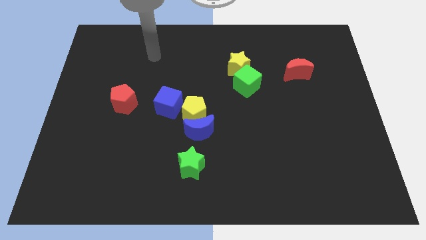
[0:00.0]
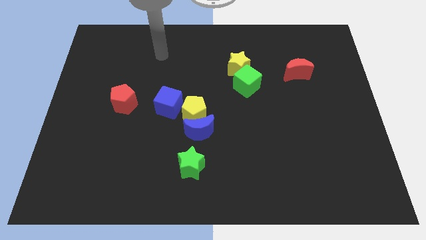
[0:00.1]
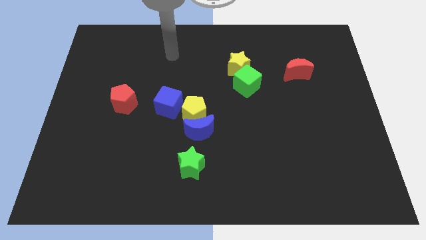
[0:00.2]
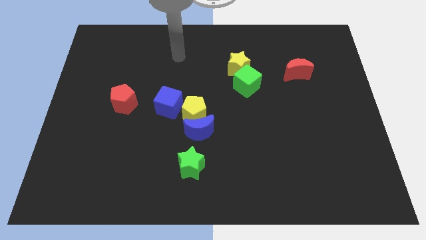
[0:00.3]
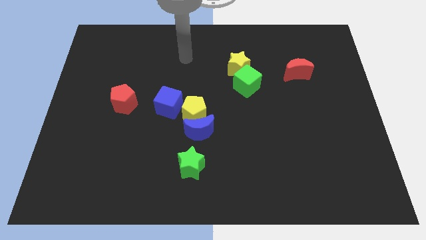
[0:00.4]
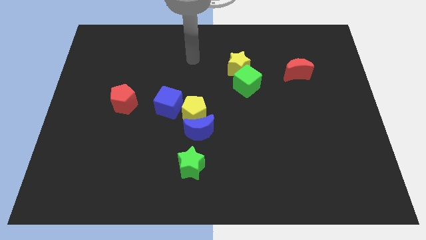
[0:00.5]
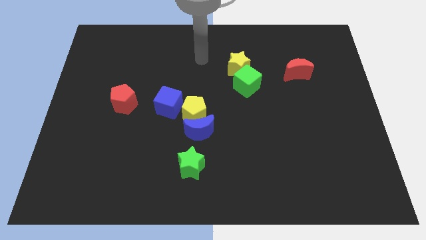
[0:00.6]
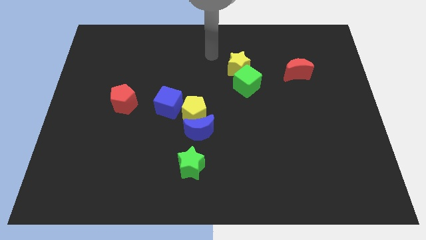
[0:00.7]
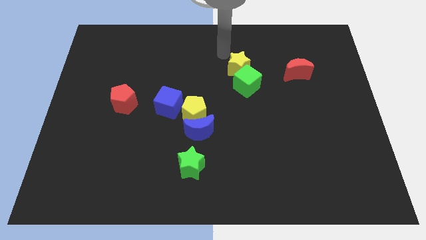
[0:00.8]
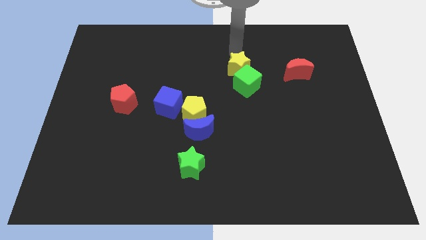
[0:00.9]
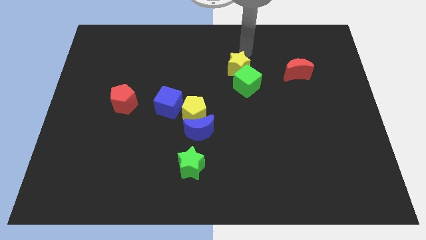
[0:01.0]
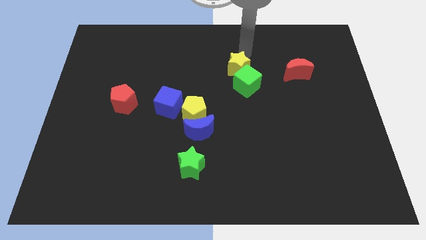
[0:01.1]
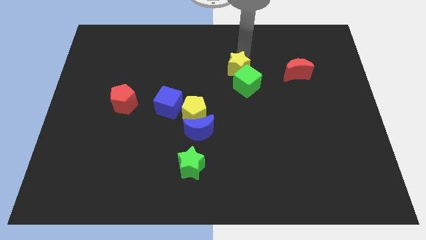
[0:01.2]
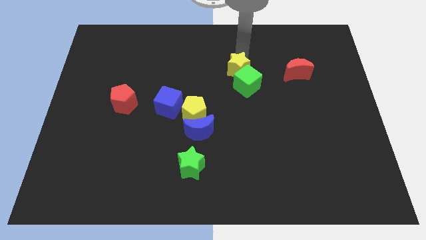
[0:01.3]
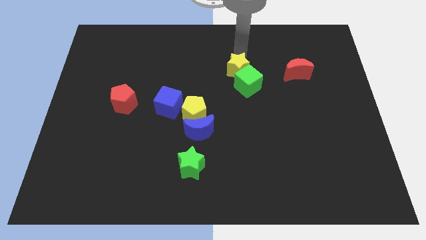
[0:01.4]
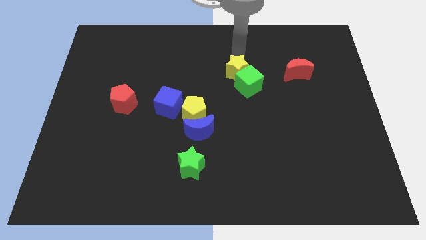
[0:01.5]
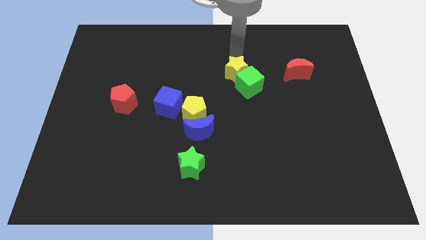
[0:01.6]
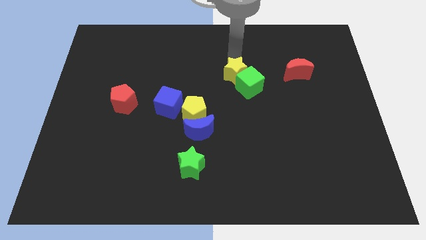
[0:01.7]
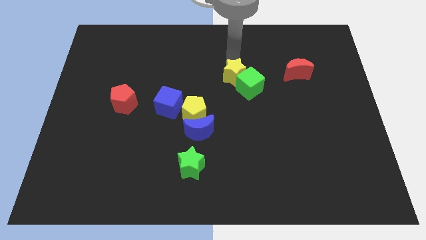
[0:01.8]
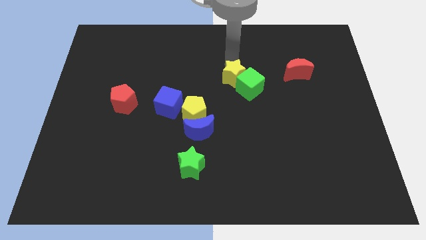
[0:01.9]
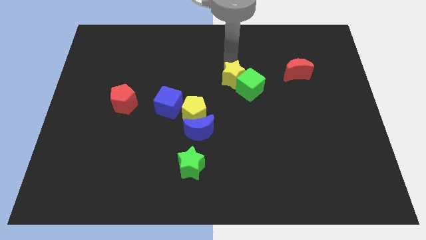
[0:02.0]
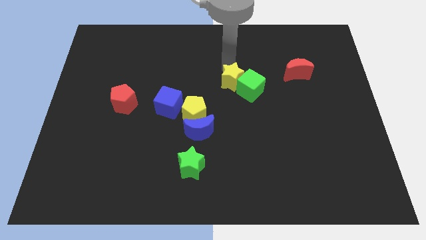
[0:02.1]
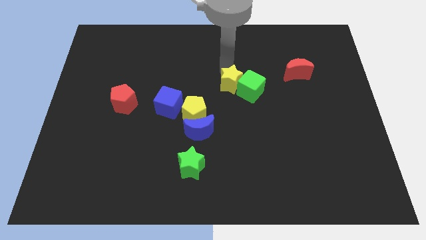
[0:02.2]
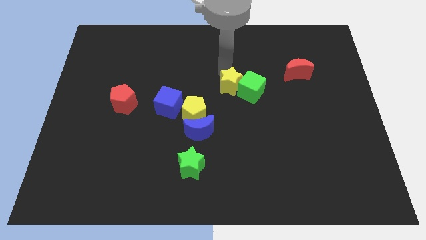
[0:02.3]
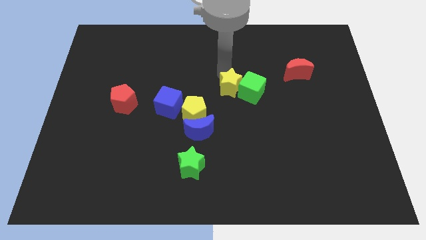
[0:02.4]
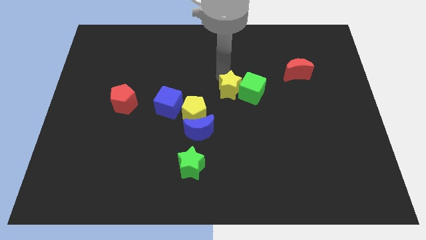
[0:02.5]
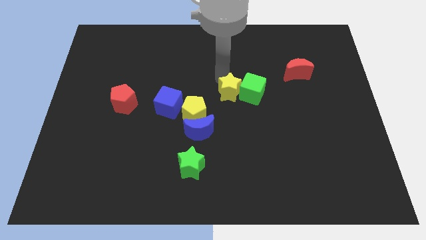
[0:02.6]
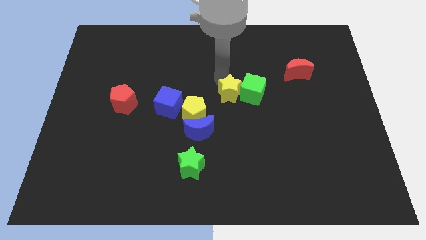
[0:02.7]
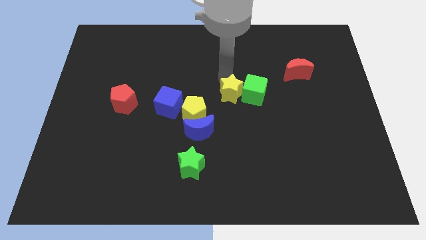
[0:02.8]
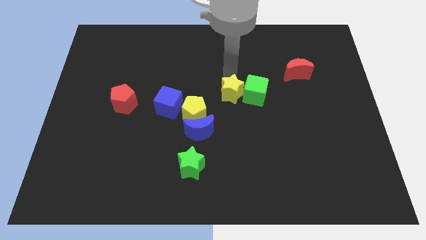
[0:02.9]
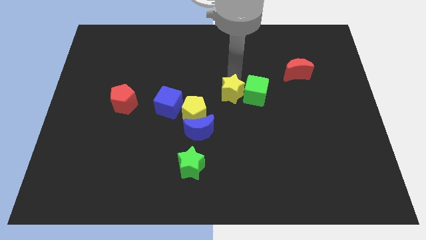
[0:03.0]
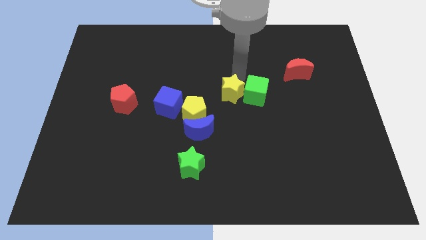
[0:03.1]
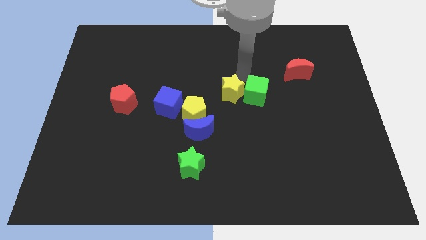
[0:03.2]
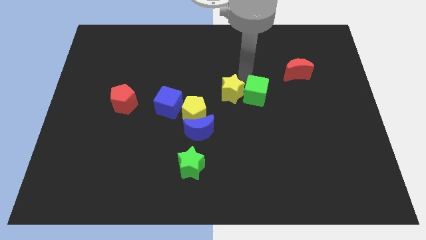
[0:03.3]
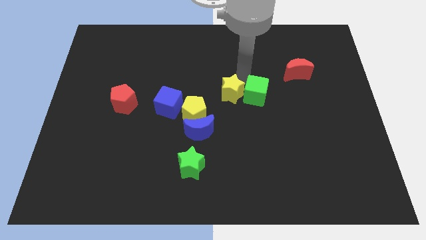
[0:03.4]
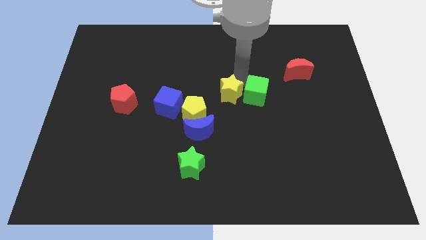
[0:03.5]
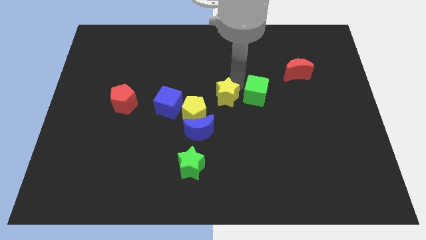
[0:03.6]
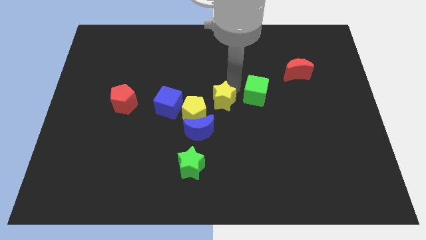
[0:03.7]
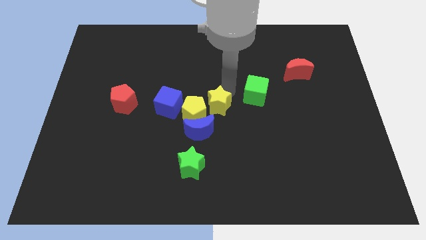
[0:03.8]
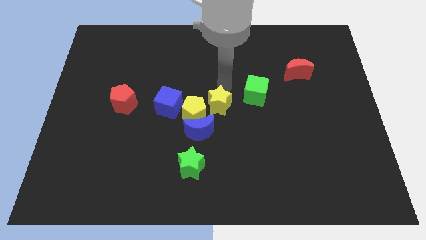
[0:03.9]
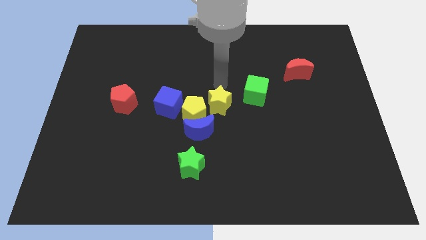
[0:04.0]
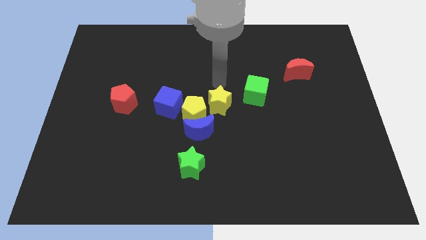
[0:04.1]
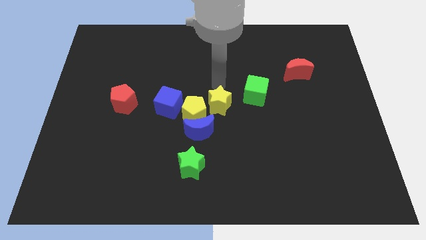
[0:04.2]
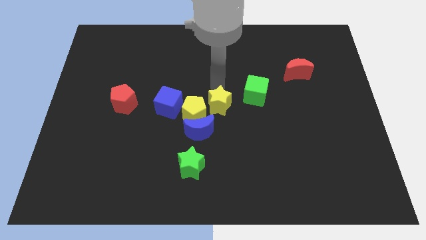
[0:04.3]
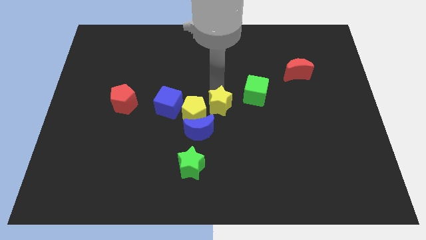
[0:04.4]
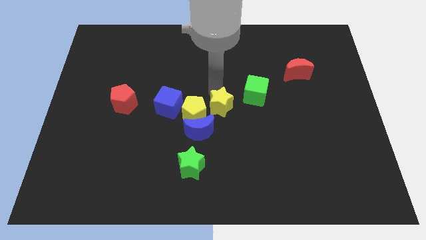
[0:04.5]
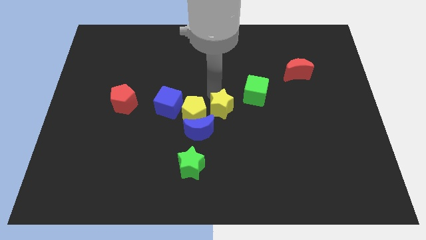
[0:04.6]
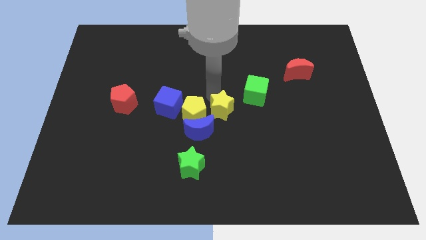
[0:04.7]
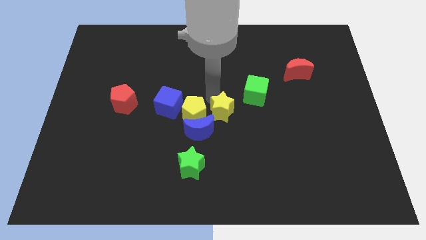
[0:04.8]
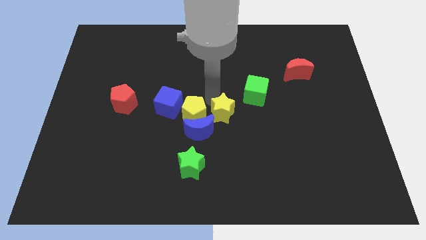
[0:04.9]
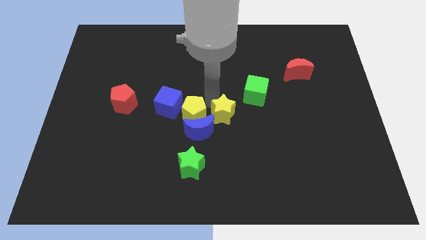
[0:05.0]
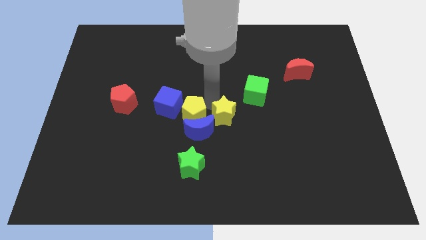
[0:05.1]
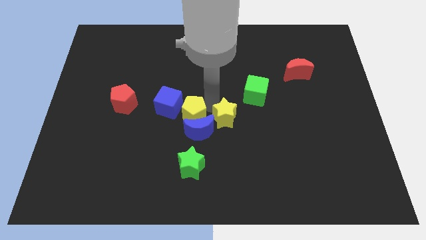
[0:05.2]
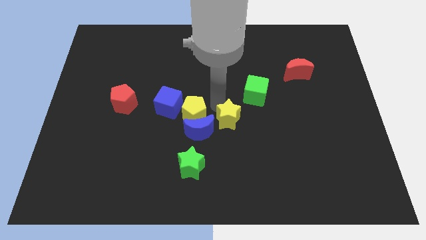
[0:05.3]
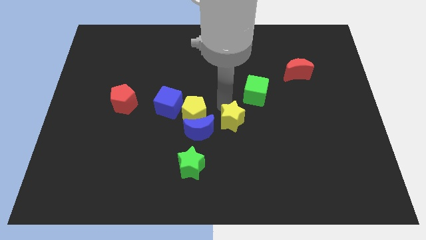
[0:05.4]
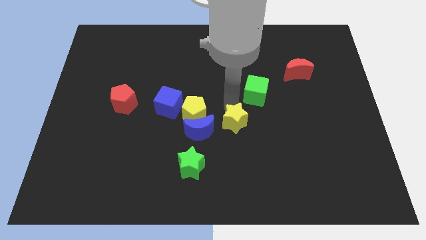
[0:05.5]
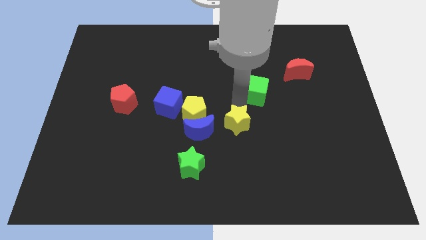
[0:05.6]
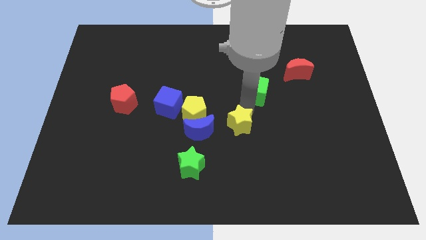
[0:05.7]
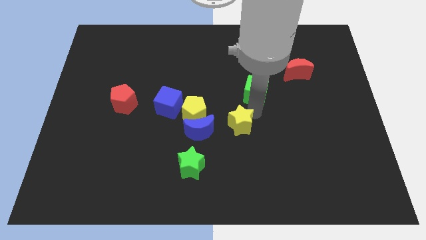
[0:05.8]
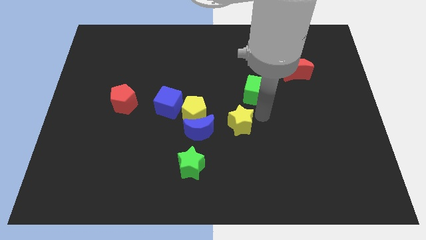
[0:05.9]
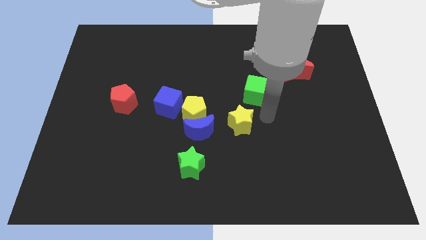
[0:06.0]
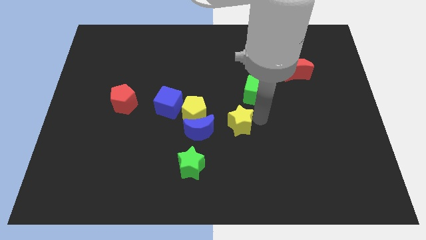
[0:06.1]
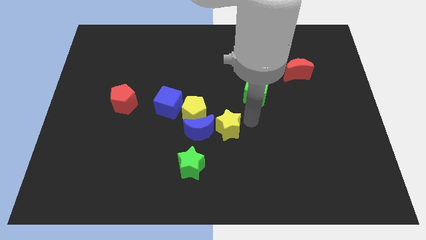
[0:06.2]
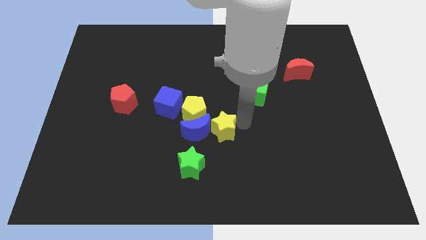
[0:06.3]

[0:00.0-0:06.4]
slide the yellow star to the blue moon

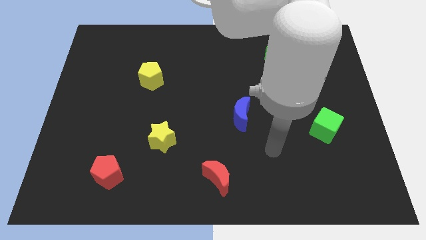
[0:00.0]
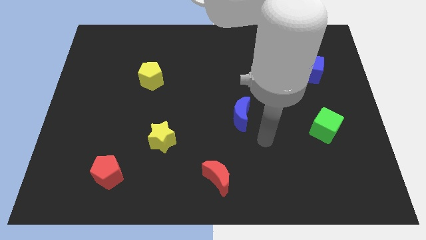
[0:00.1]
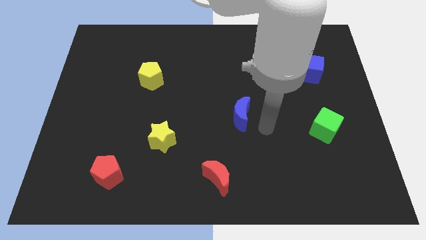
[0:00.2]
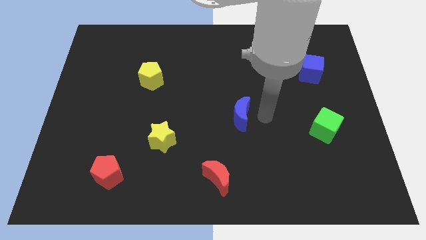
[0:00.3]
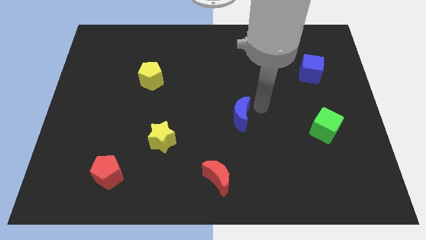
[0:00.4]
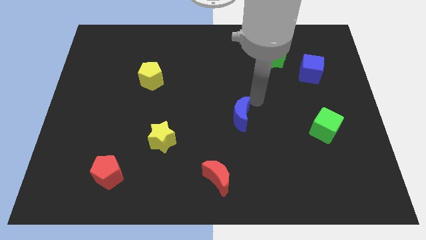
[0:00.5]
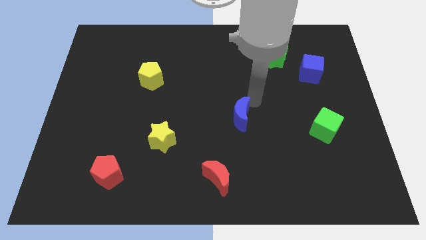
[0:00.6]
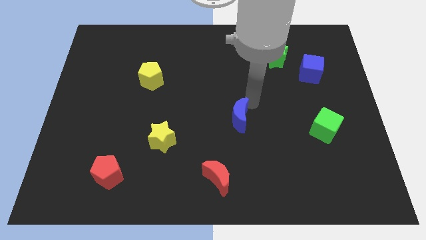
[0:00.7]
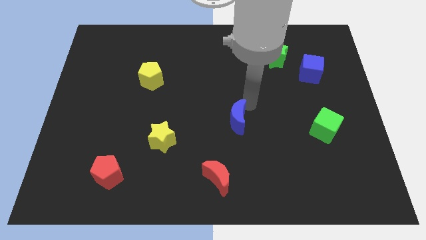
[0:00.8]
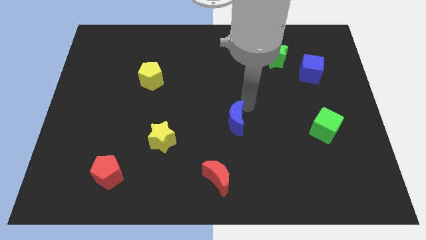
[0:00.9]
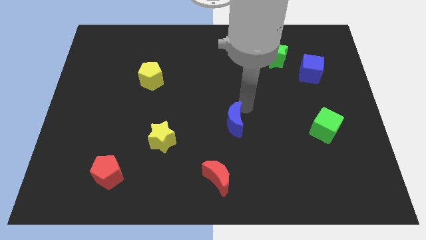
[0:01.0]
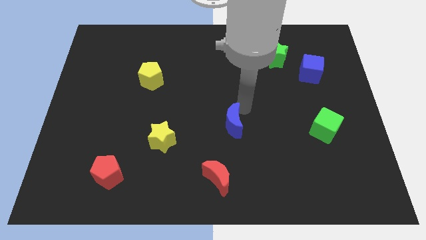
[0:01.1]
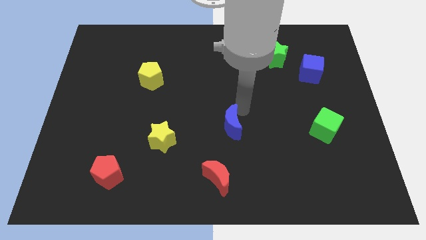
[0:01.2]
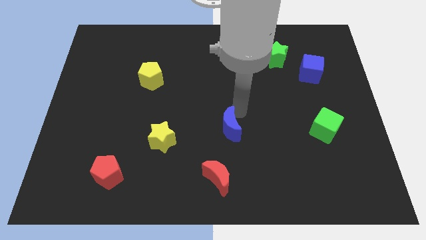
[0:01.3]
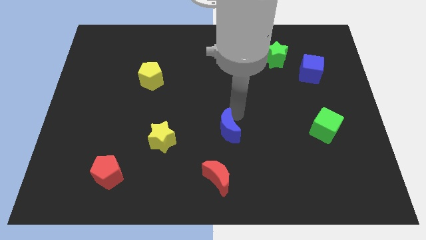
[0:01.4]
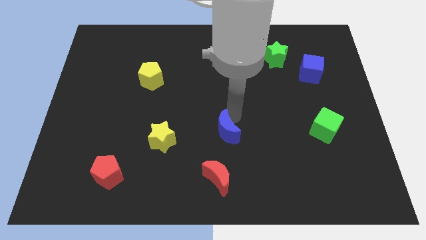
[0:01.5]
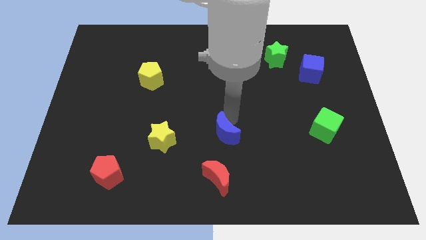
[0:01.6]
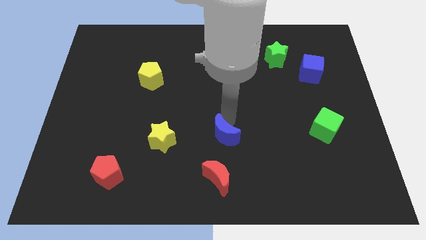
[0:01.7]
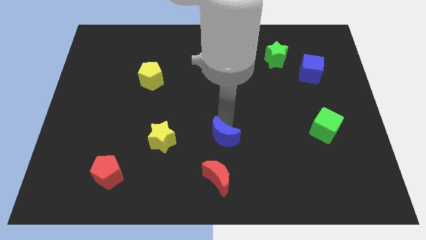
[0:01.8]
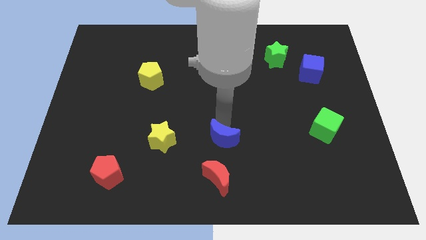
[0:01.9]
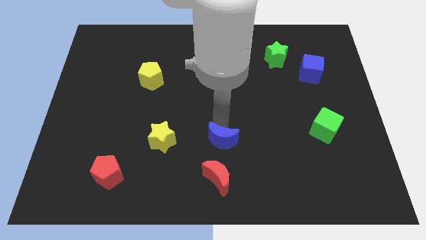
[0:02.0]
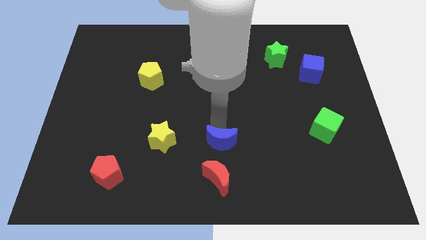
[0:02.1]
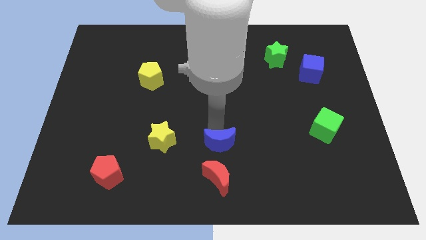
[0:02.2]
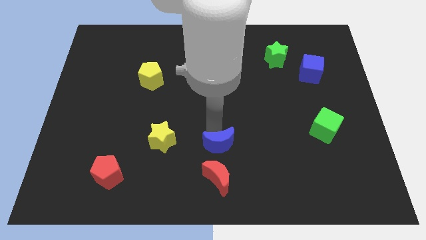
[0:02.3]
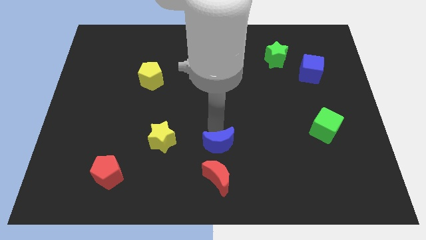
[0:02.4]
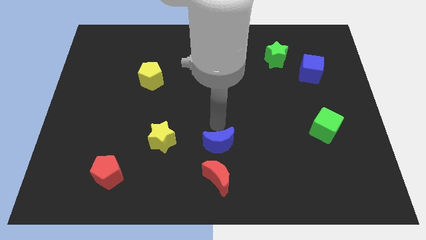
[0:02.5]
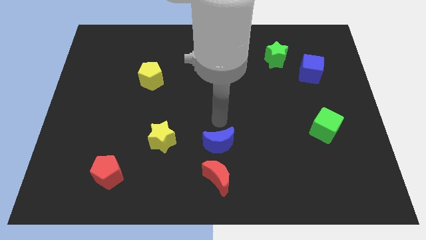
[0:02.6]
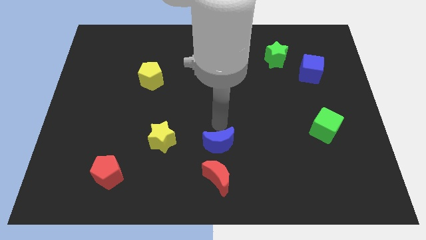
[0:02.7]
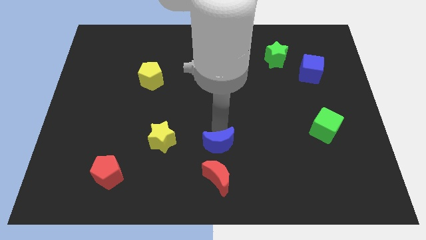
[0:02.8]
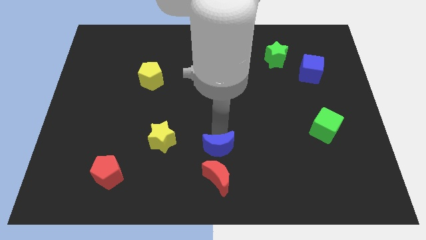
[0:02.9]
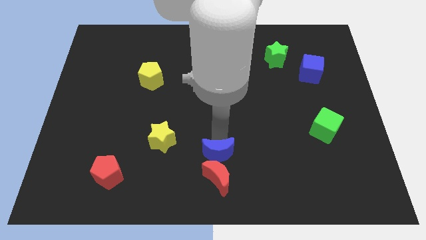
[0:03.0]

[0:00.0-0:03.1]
push the blue moon towards the red moon
